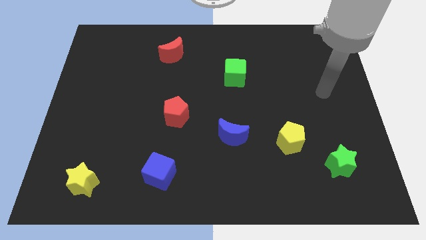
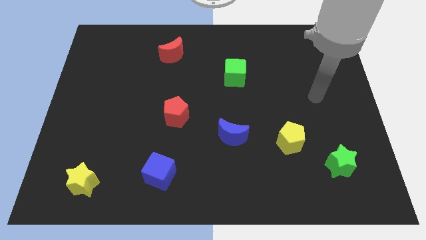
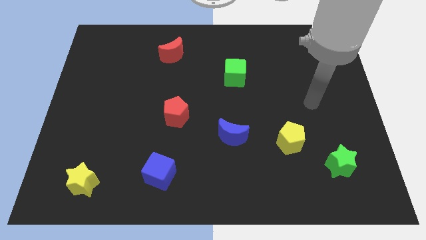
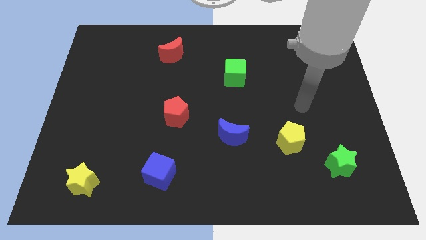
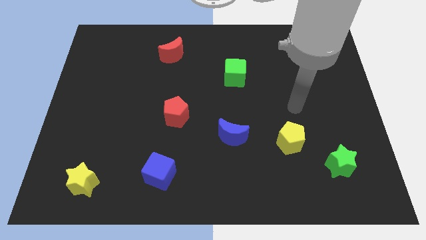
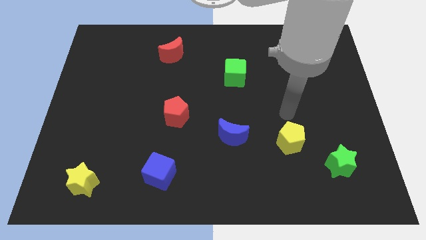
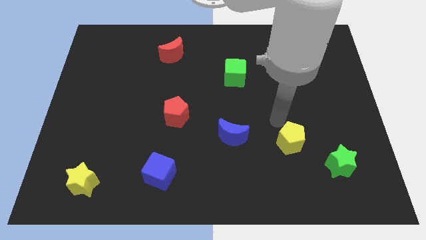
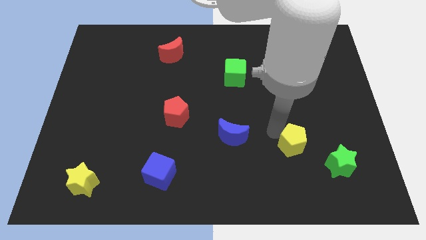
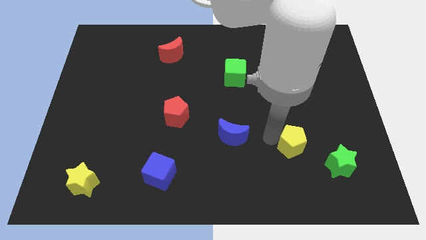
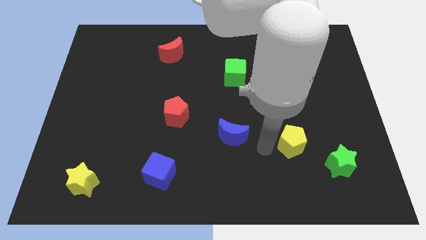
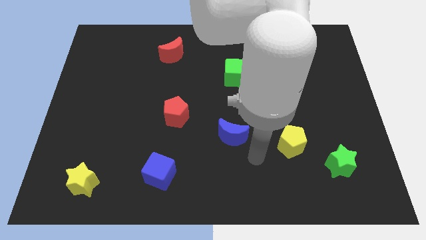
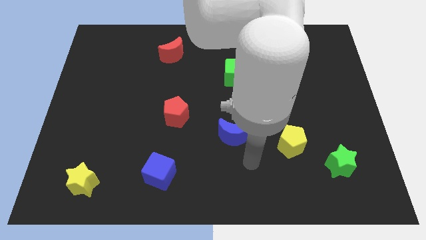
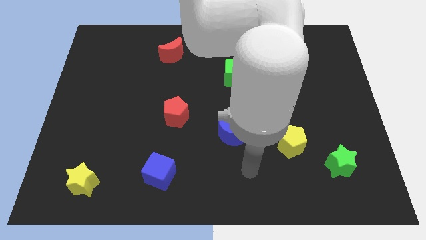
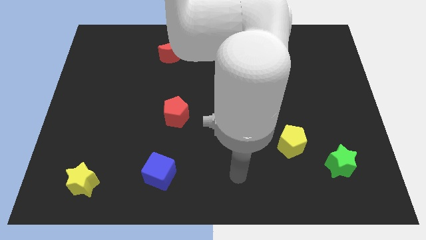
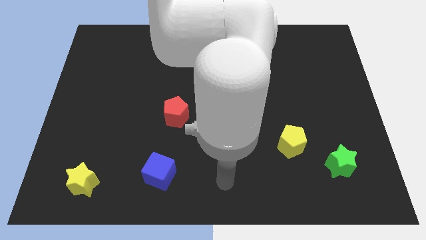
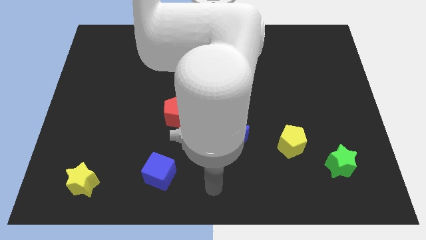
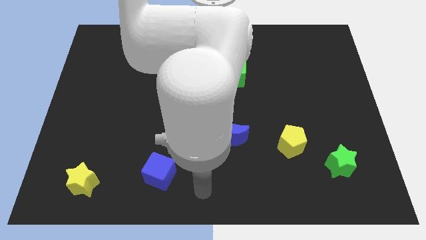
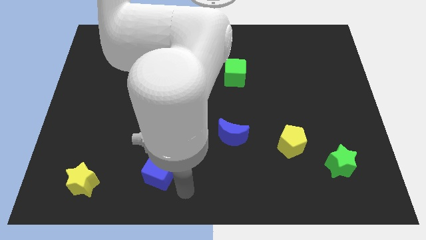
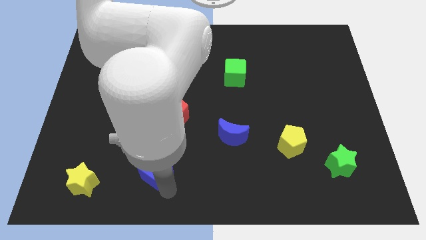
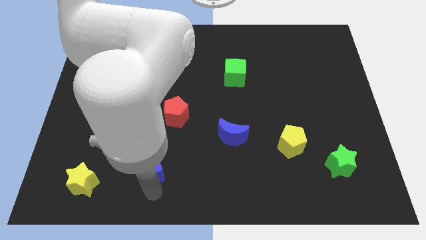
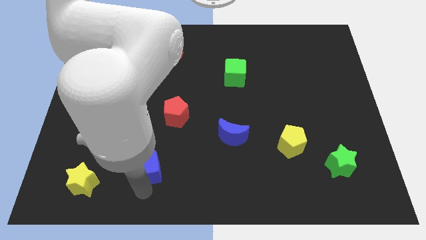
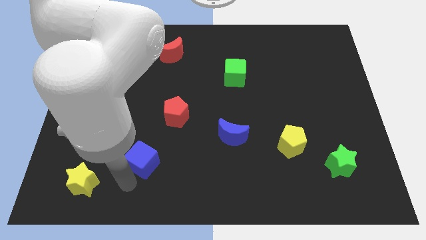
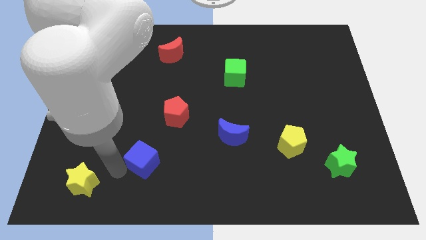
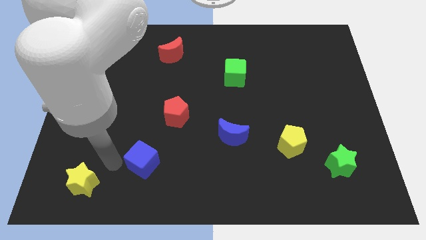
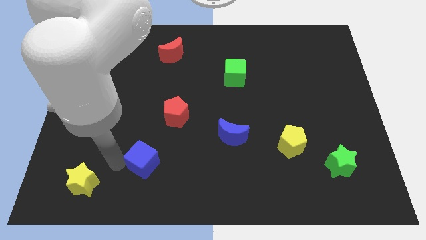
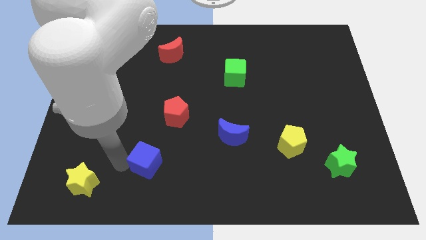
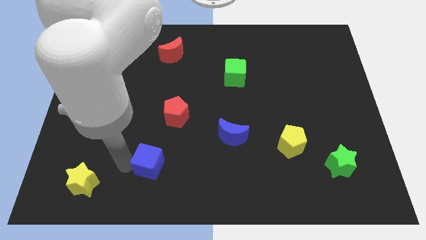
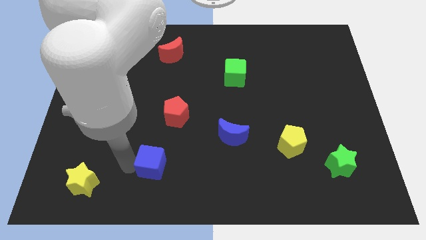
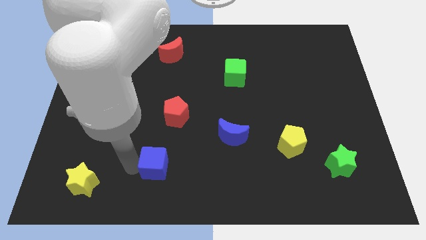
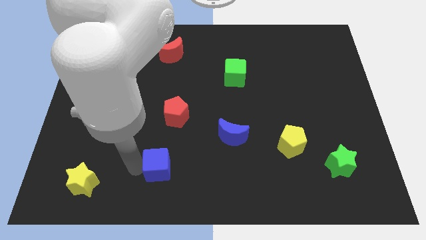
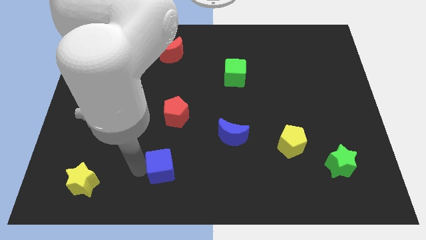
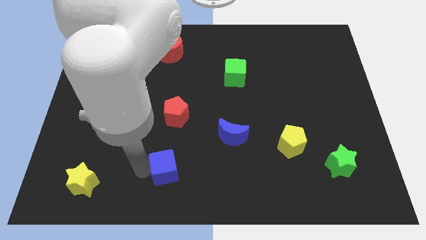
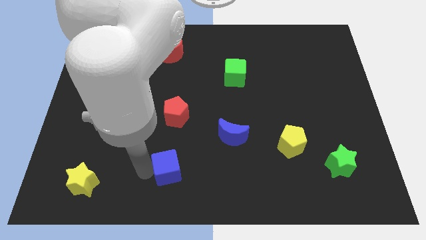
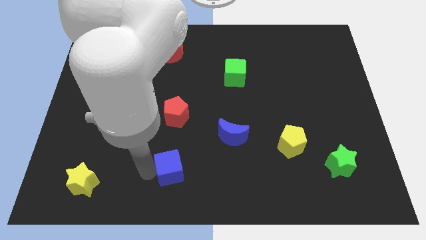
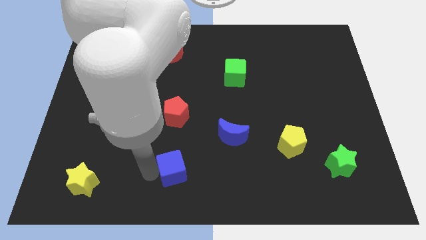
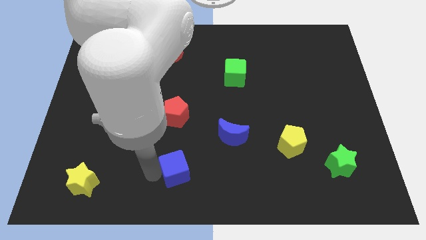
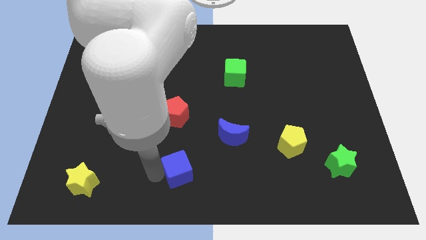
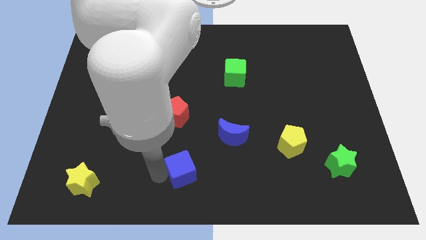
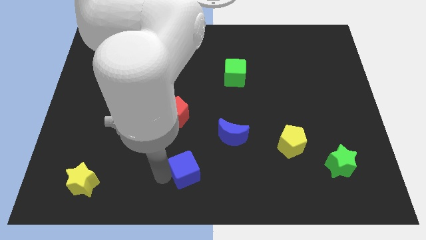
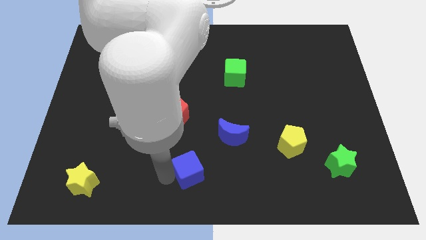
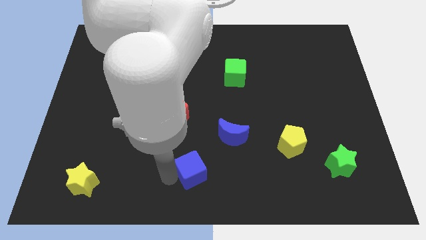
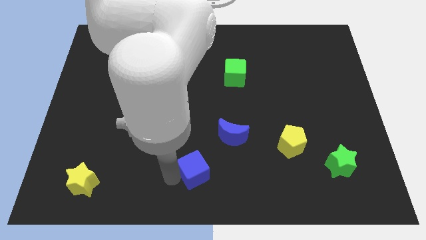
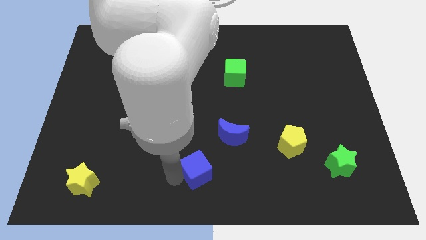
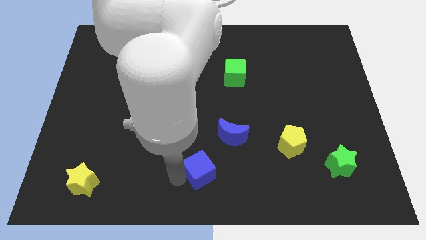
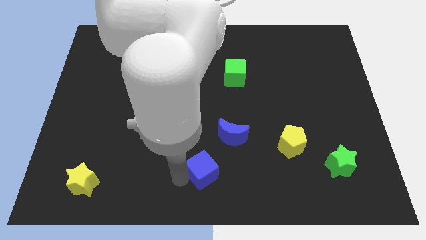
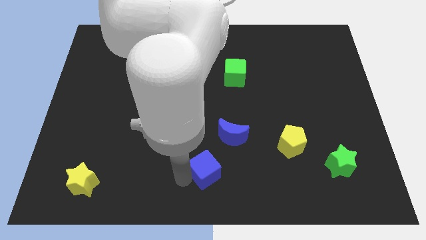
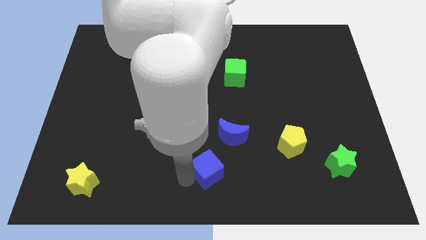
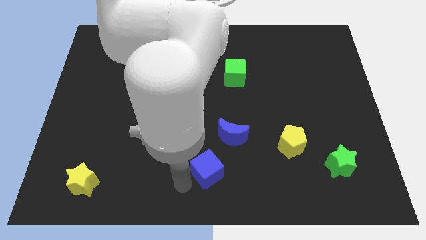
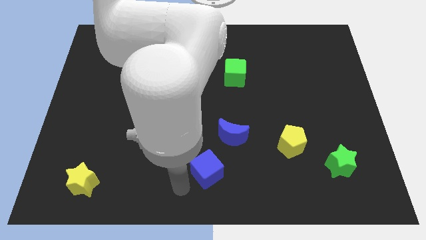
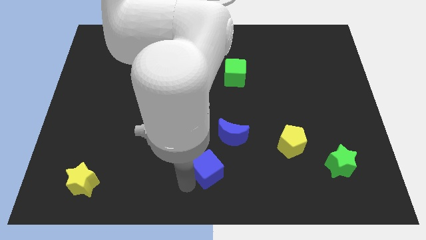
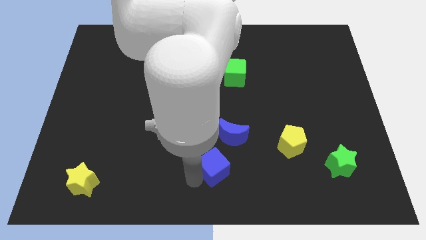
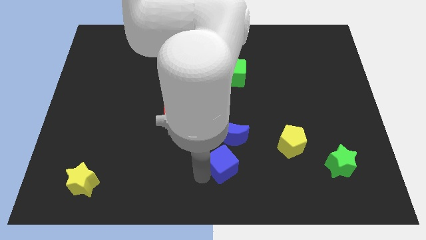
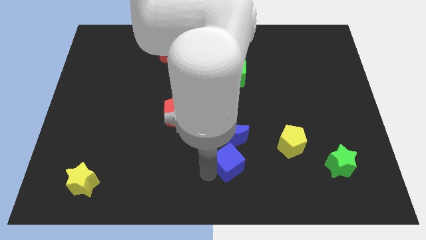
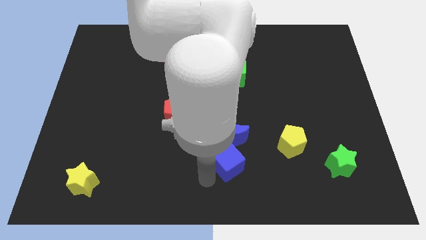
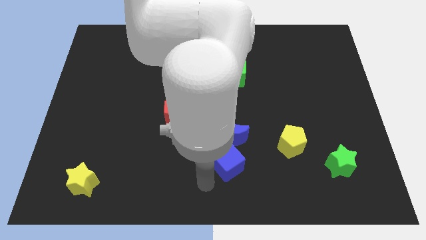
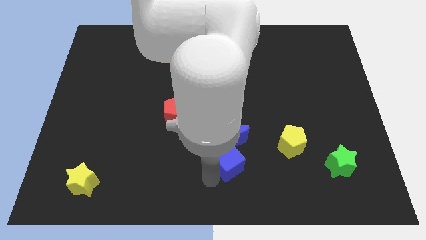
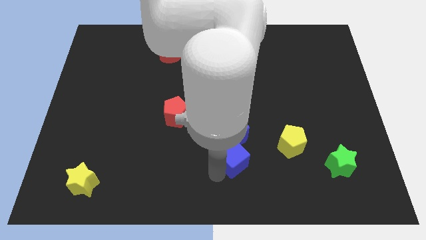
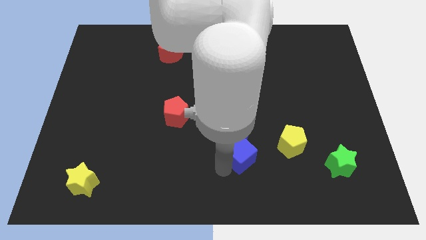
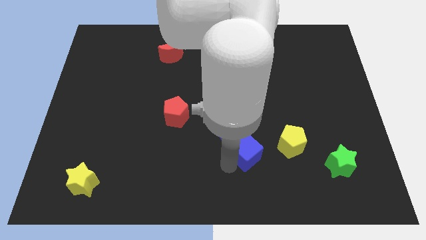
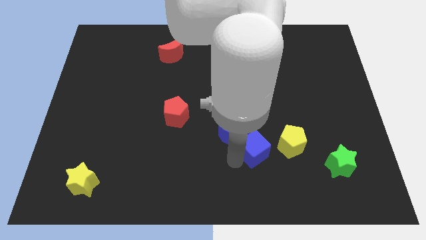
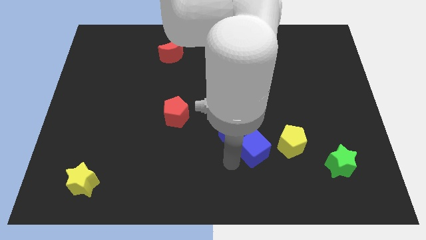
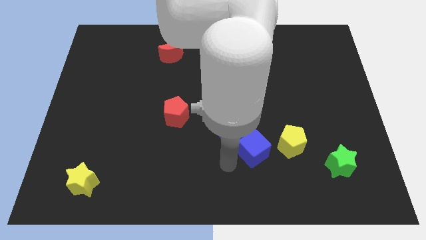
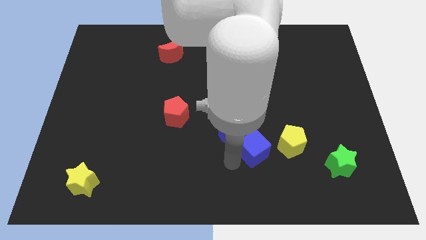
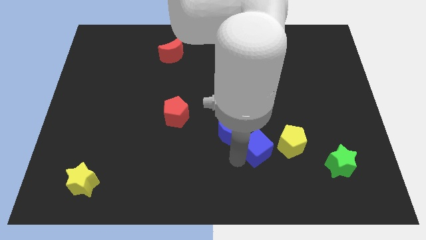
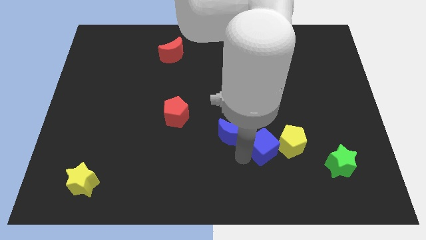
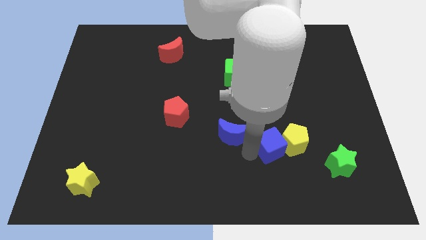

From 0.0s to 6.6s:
slide the blue cube next to the yellow pentagon

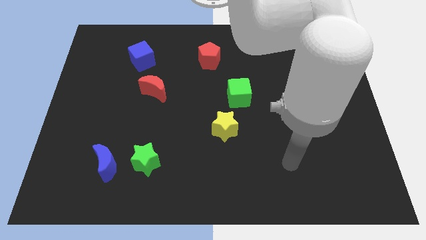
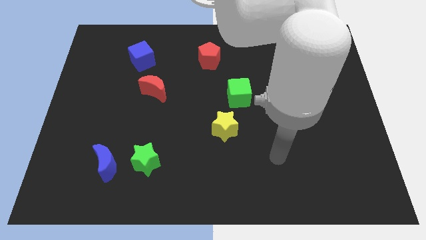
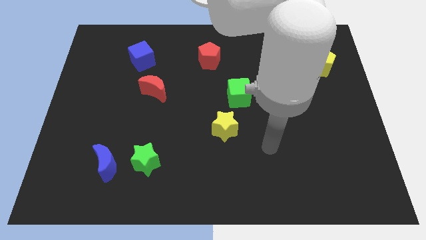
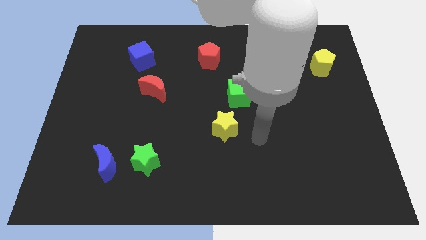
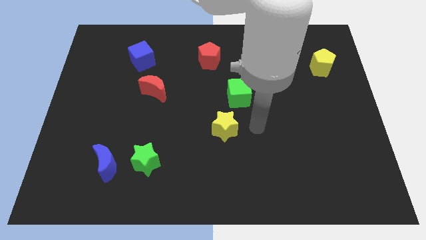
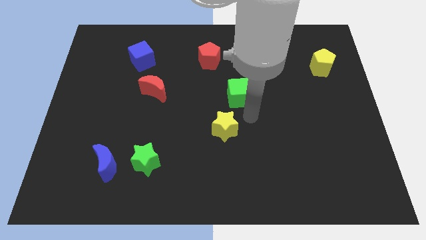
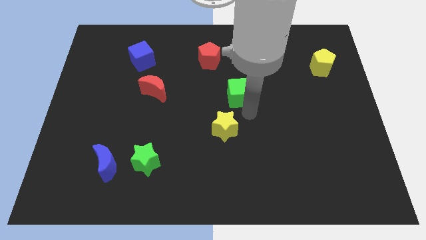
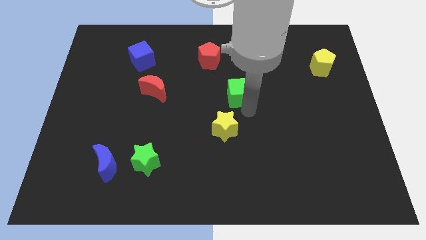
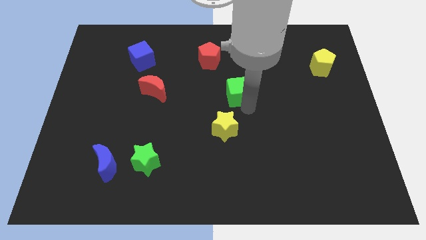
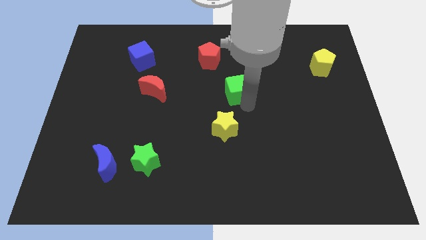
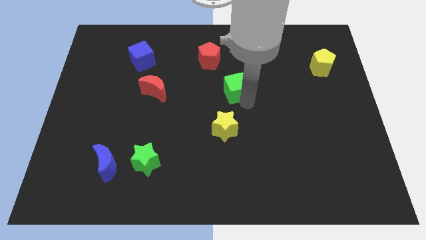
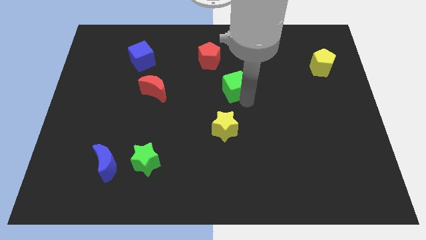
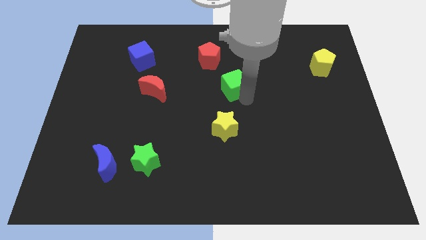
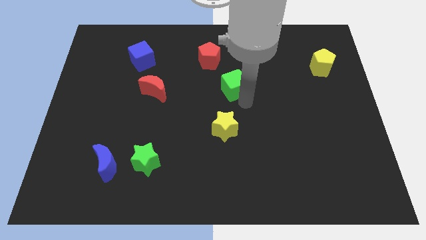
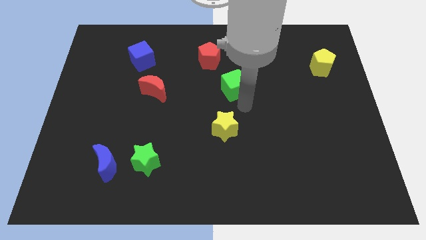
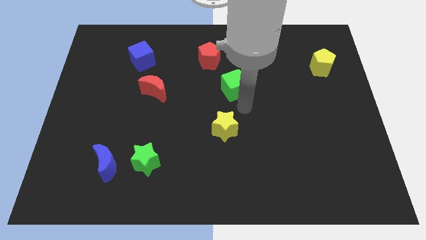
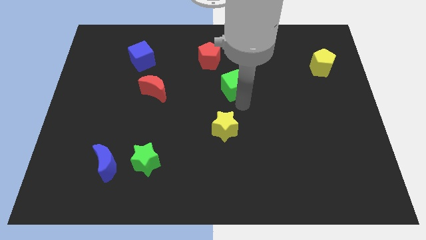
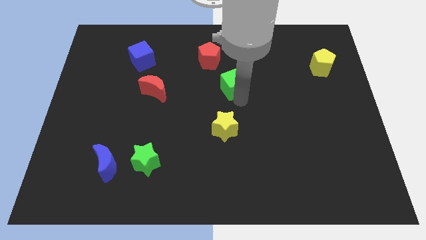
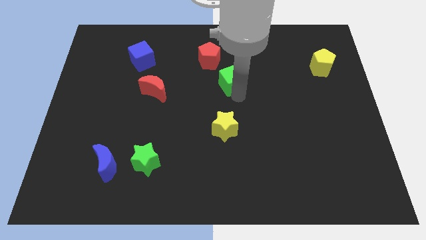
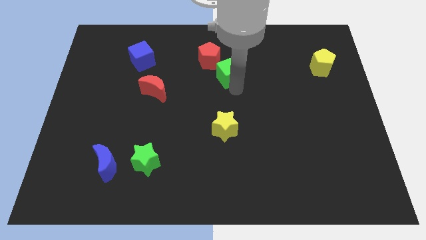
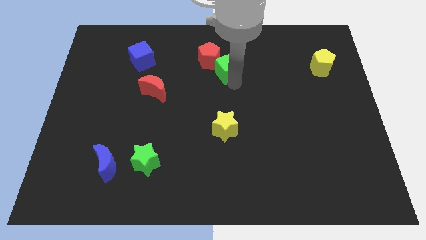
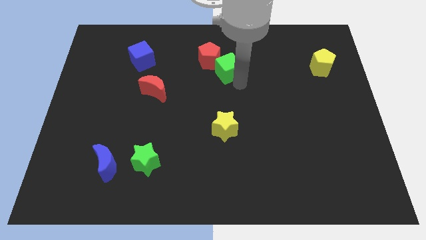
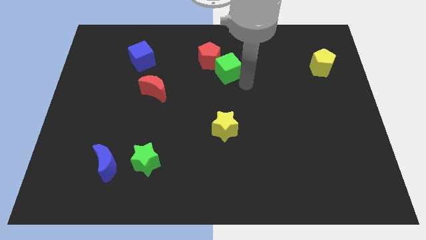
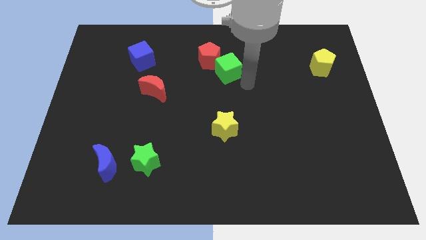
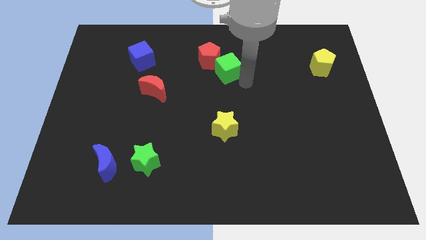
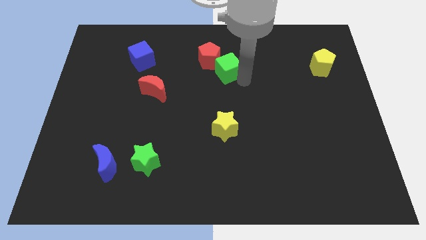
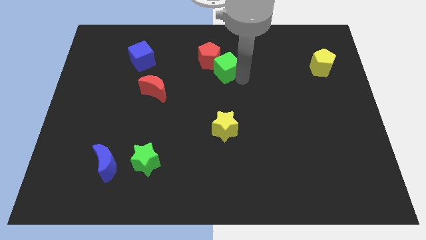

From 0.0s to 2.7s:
put the green cube next to the red pentagon
